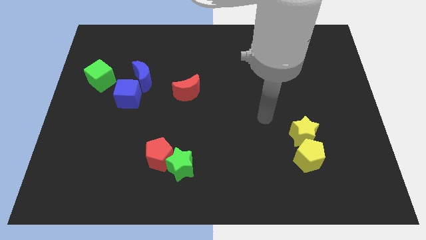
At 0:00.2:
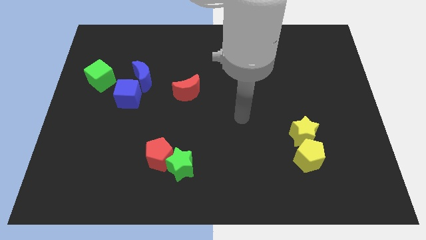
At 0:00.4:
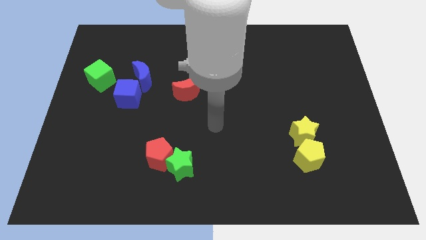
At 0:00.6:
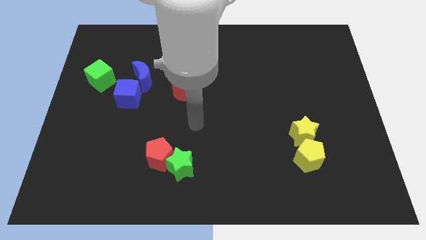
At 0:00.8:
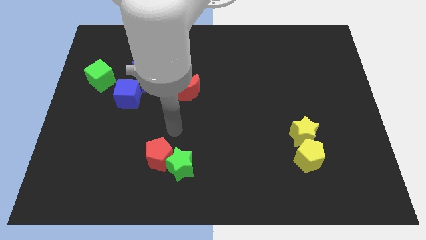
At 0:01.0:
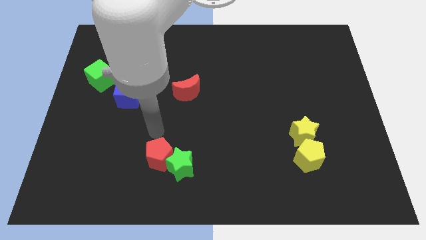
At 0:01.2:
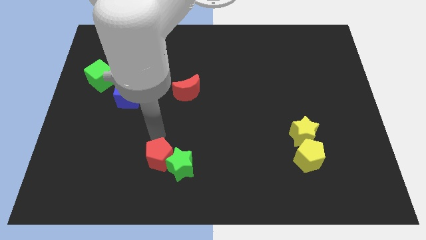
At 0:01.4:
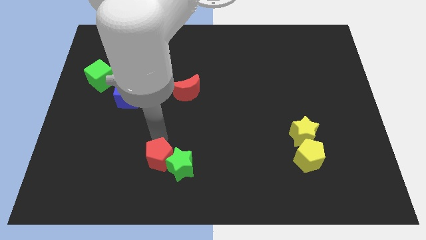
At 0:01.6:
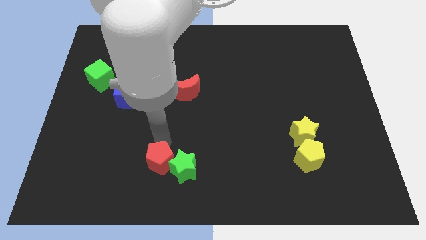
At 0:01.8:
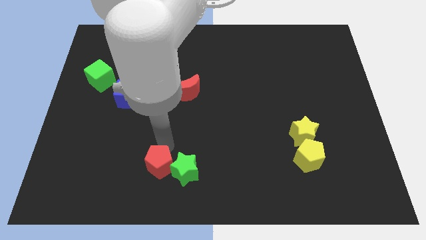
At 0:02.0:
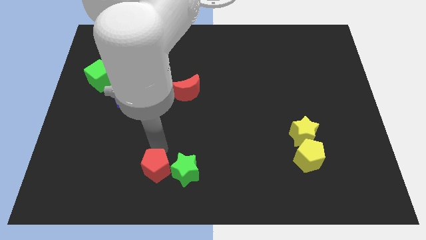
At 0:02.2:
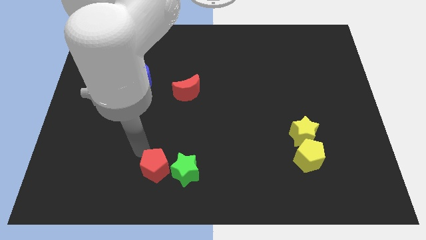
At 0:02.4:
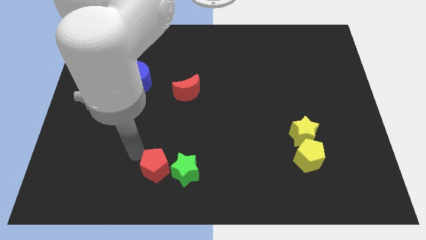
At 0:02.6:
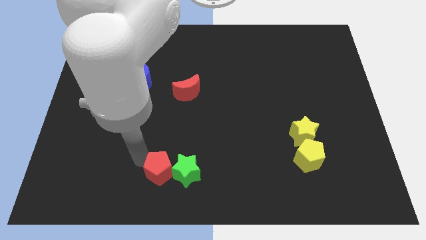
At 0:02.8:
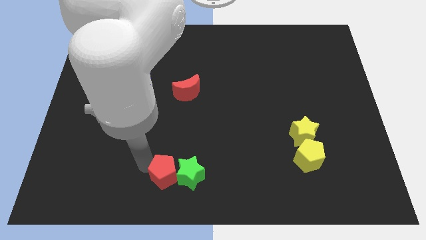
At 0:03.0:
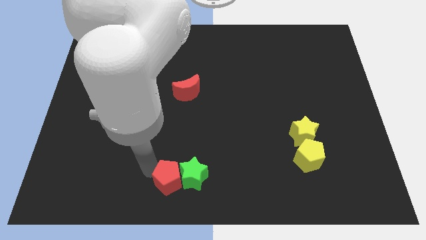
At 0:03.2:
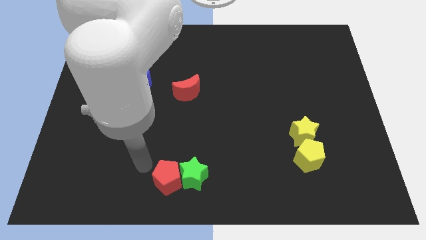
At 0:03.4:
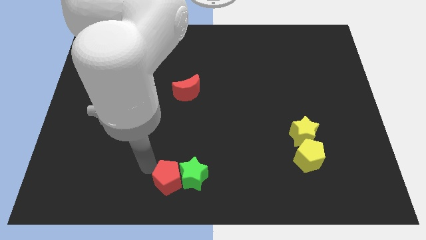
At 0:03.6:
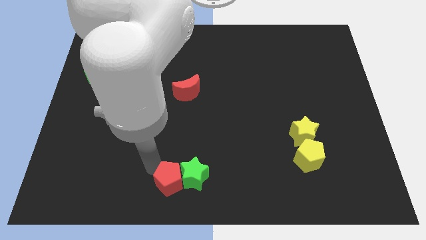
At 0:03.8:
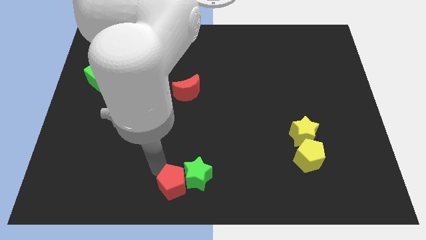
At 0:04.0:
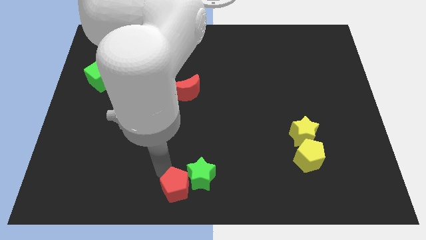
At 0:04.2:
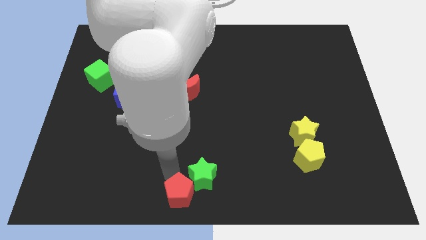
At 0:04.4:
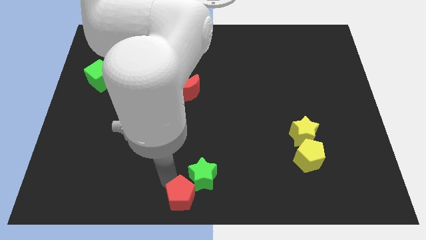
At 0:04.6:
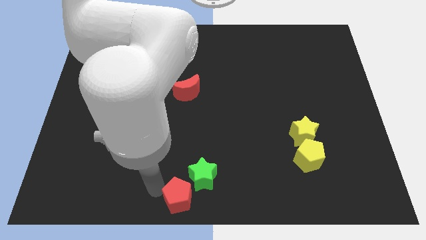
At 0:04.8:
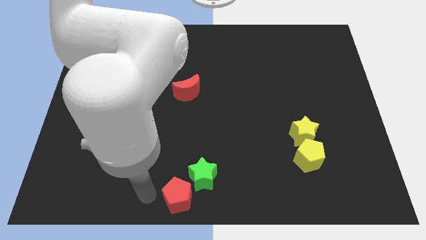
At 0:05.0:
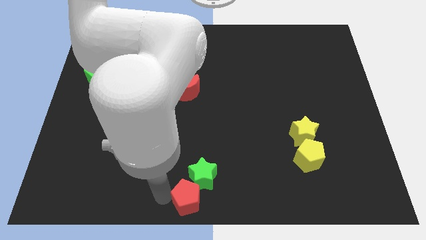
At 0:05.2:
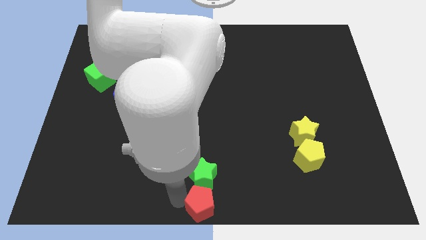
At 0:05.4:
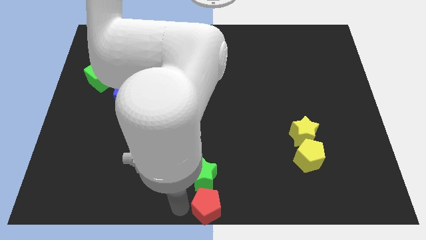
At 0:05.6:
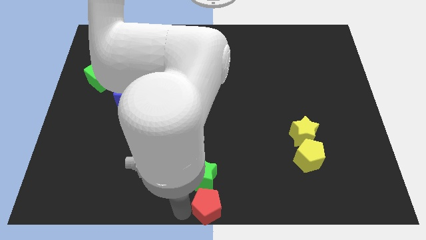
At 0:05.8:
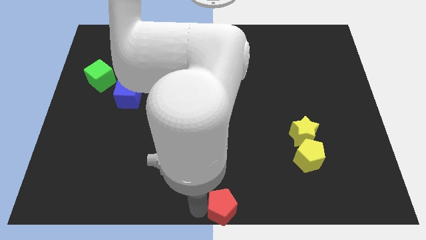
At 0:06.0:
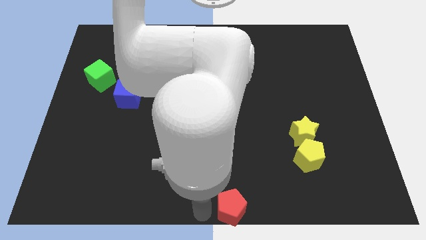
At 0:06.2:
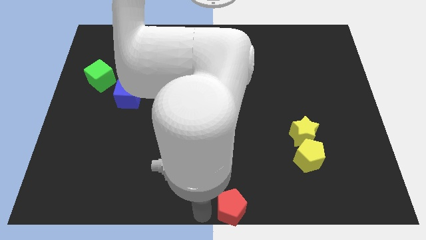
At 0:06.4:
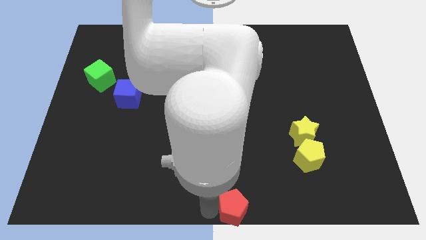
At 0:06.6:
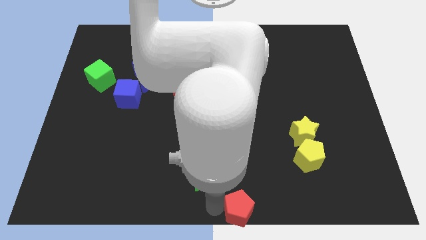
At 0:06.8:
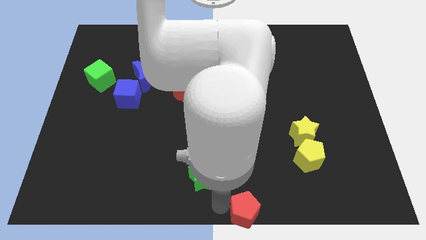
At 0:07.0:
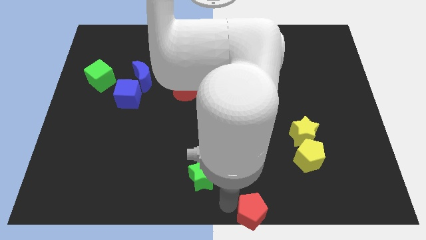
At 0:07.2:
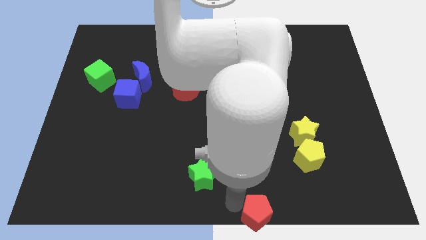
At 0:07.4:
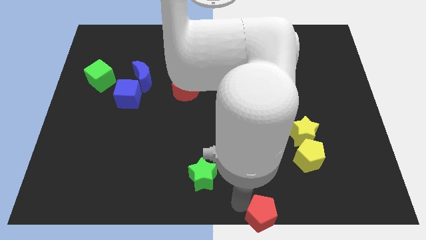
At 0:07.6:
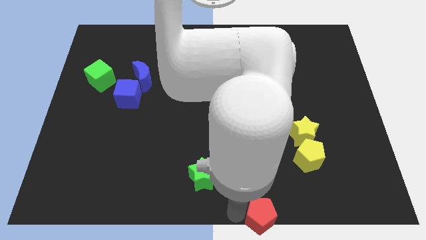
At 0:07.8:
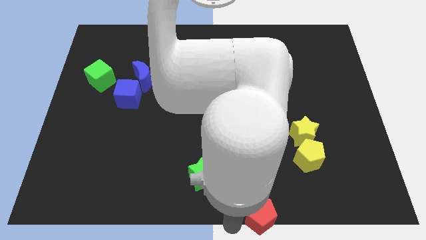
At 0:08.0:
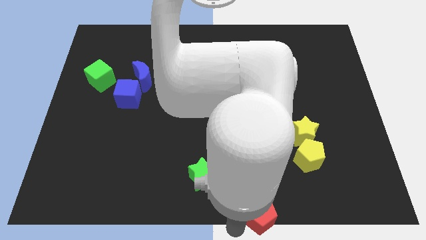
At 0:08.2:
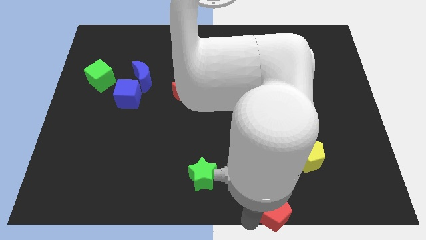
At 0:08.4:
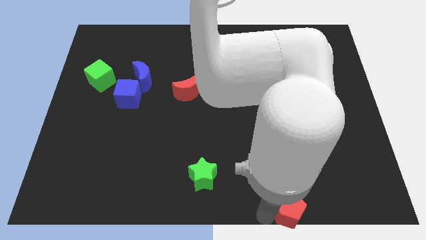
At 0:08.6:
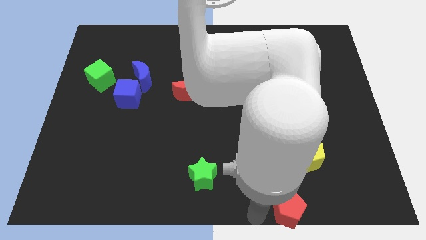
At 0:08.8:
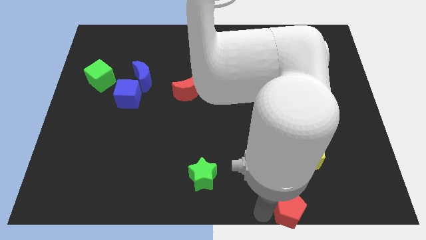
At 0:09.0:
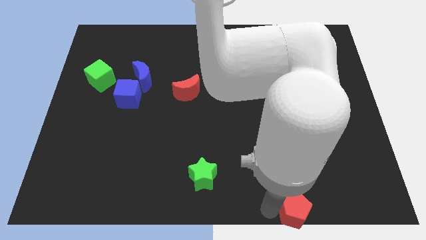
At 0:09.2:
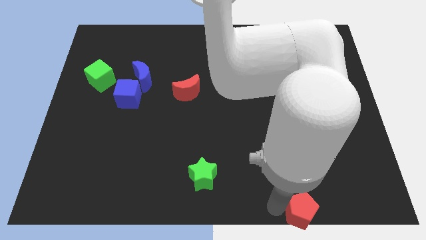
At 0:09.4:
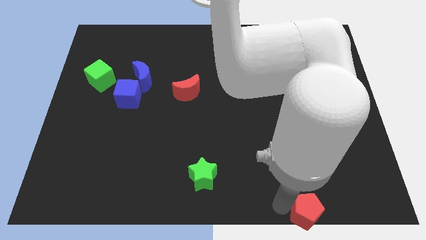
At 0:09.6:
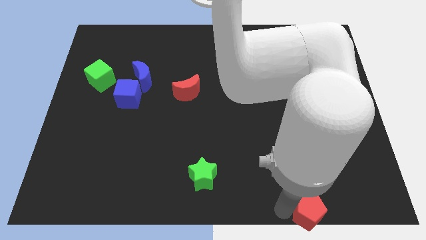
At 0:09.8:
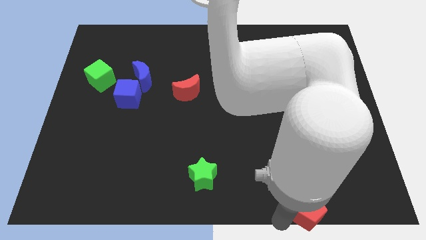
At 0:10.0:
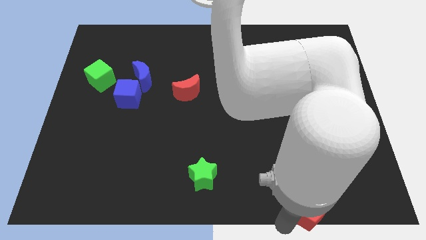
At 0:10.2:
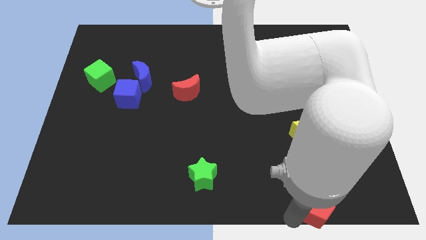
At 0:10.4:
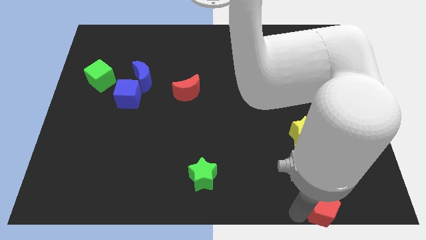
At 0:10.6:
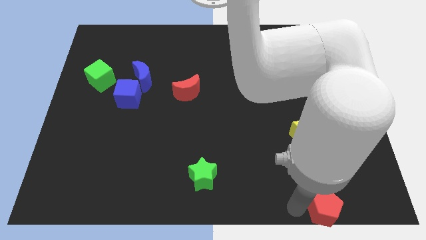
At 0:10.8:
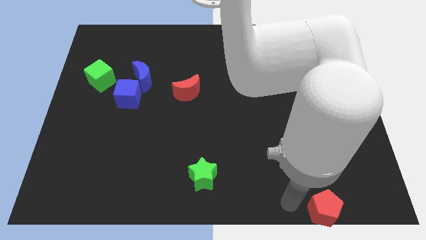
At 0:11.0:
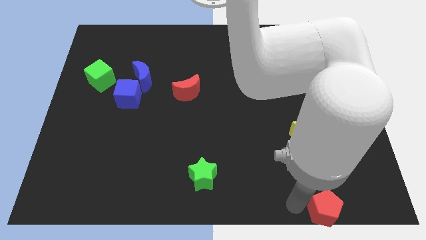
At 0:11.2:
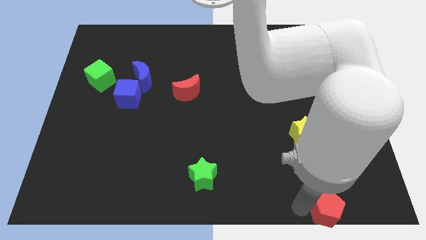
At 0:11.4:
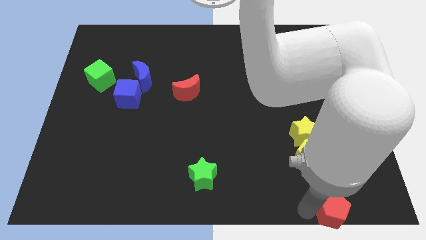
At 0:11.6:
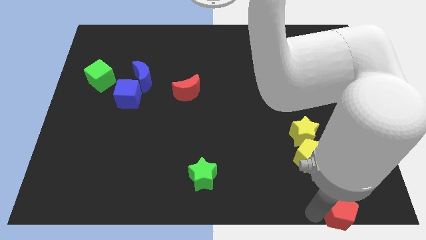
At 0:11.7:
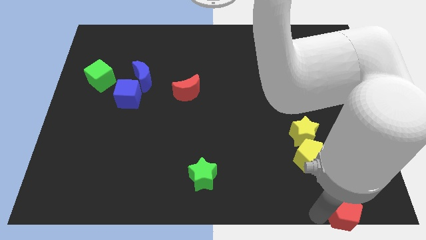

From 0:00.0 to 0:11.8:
slide the red pentagon to the lower right corner
